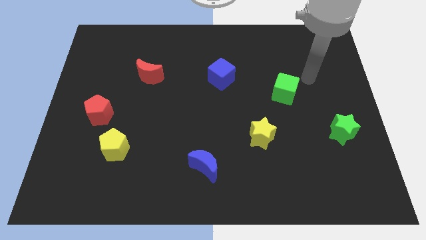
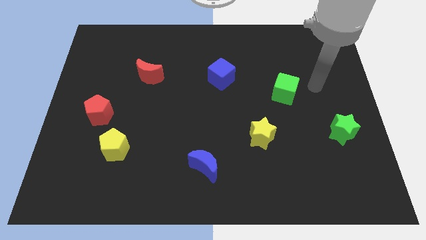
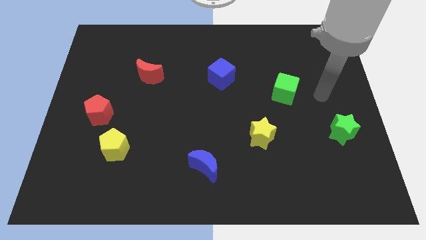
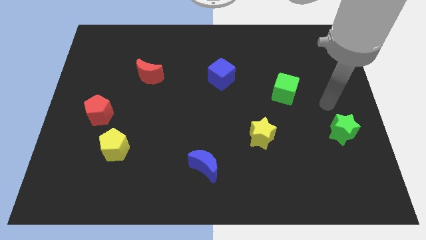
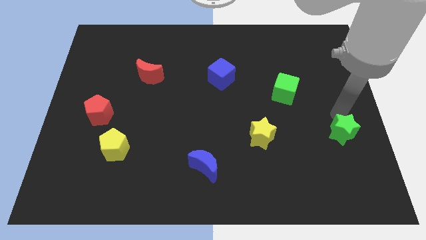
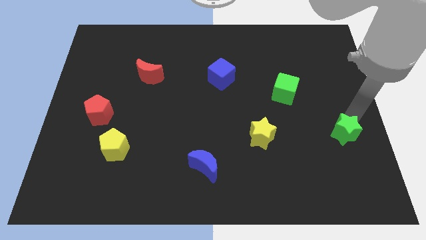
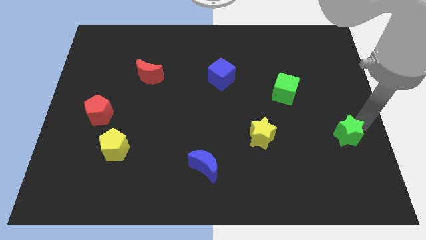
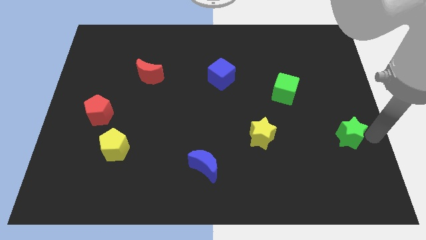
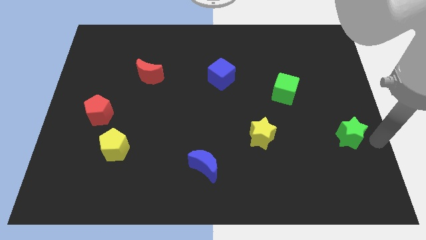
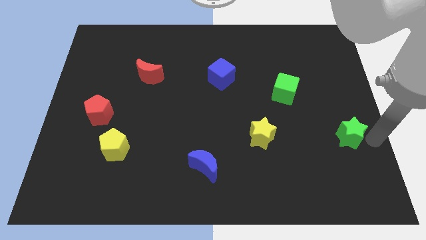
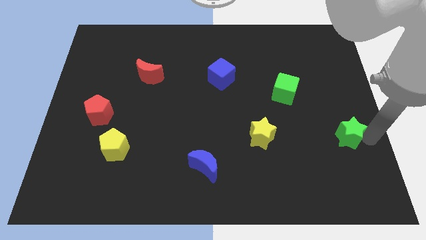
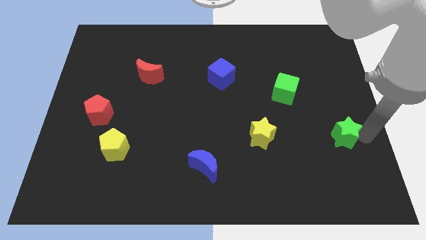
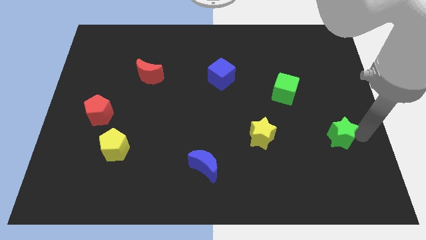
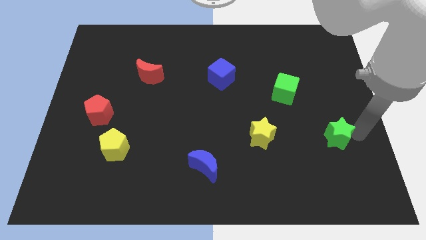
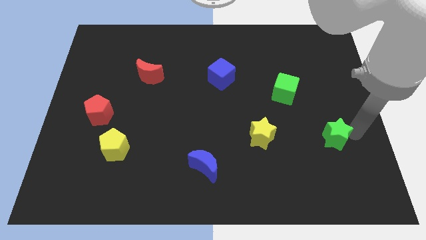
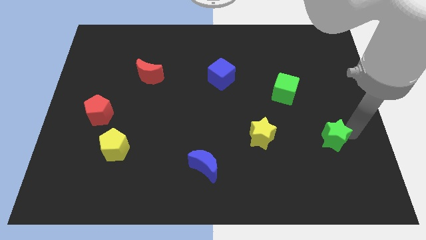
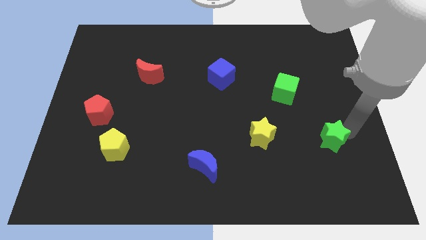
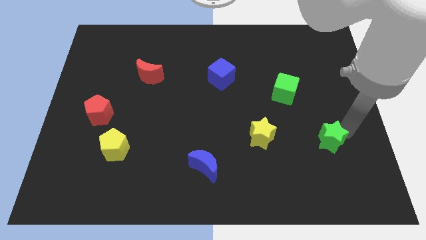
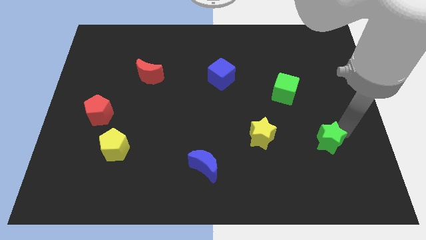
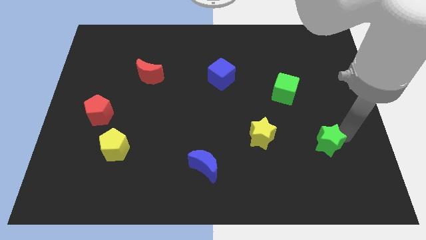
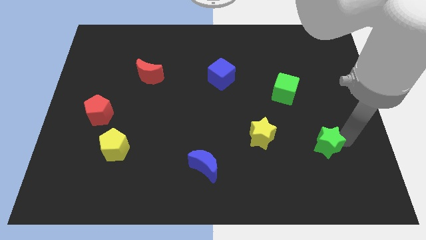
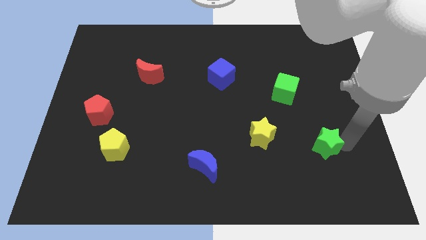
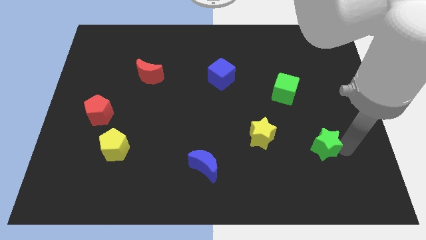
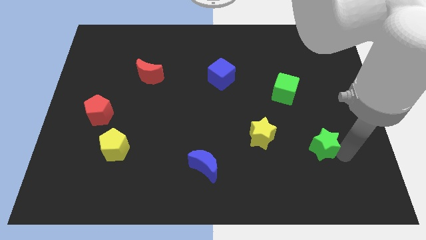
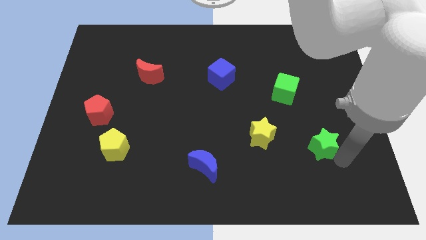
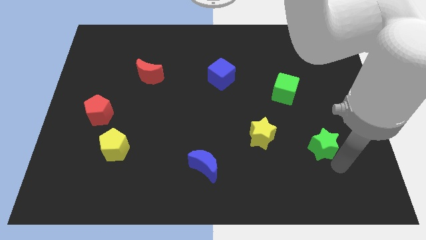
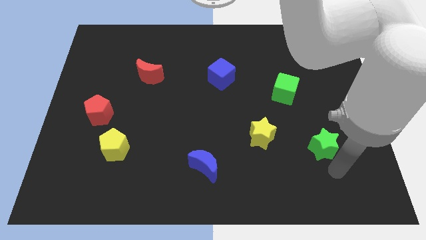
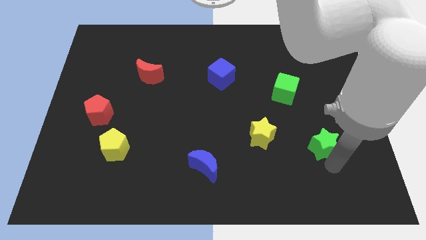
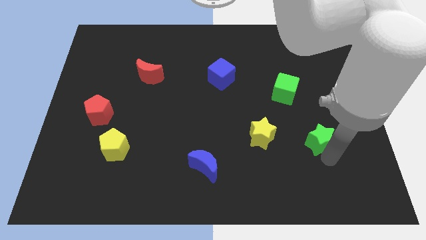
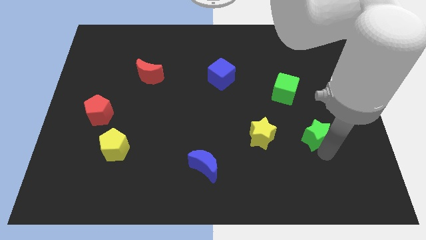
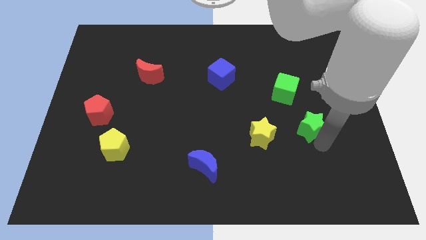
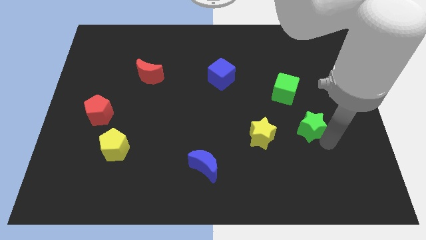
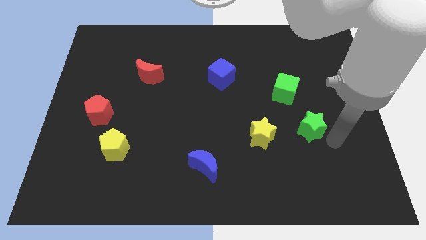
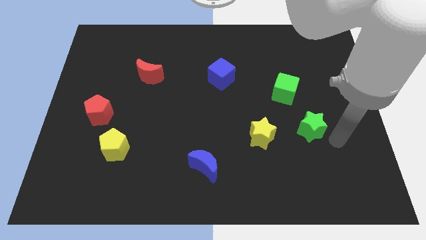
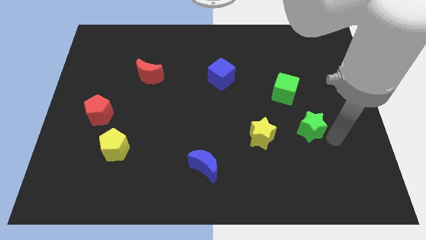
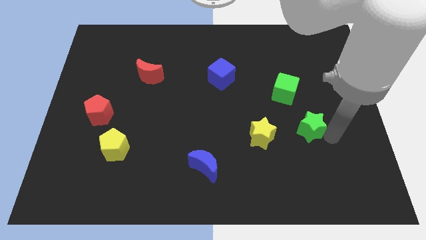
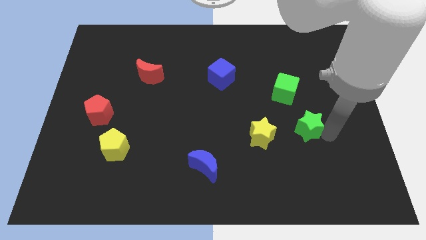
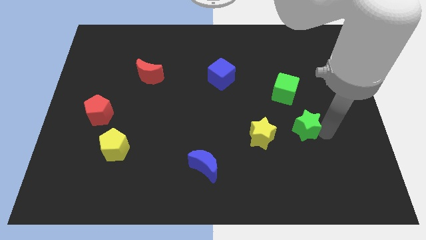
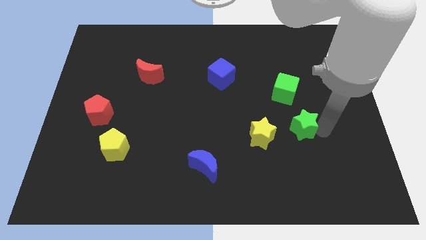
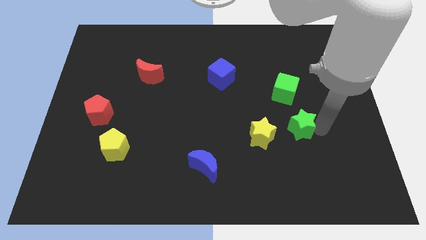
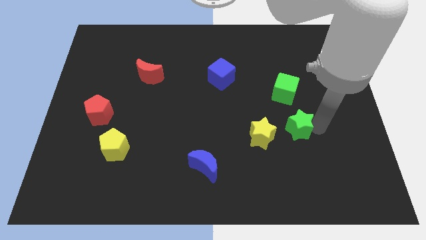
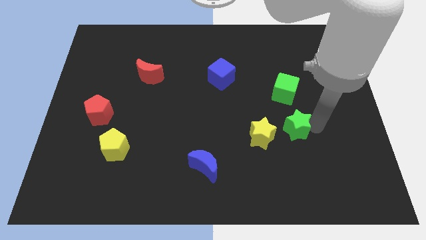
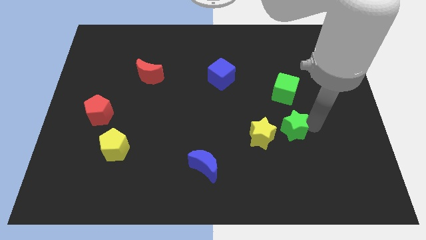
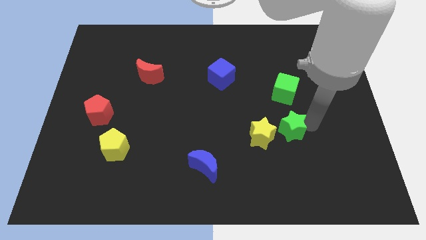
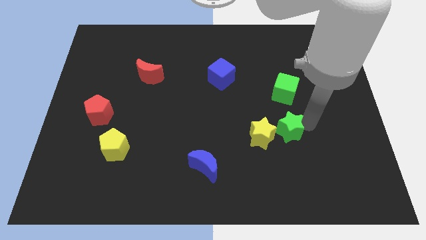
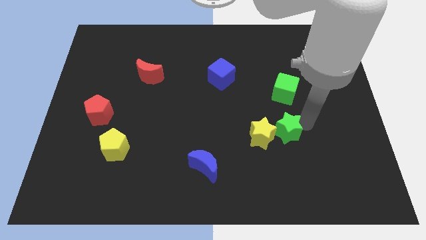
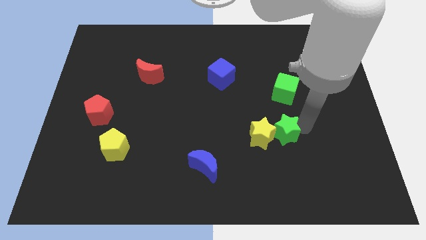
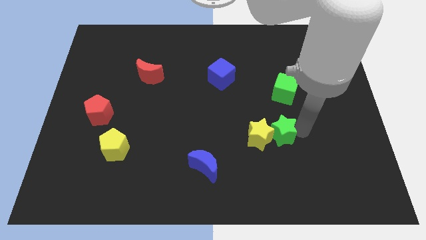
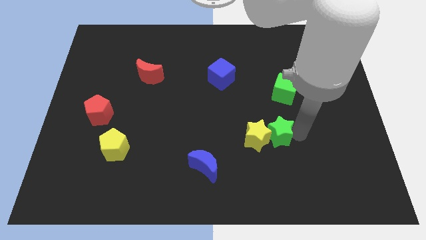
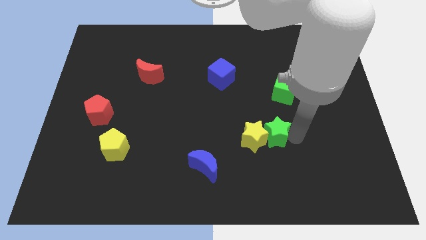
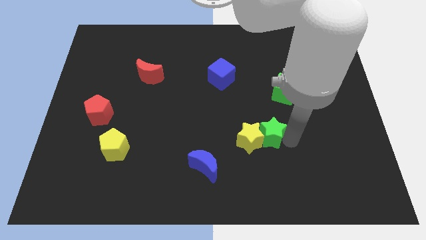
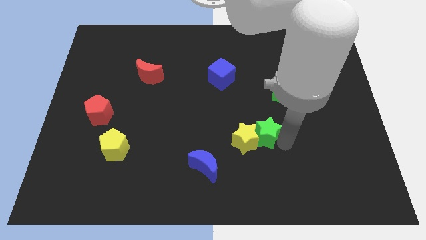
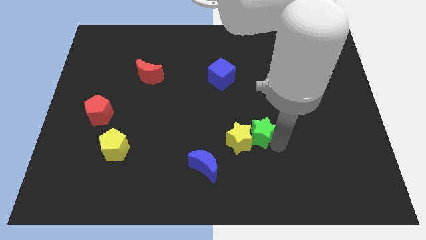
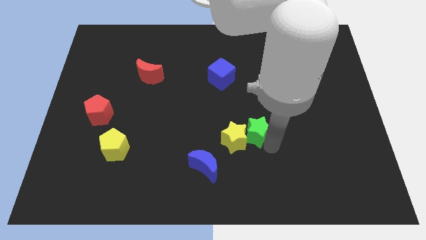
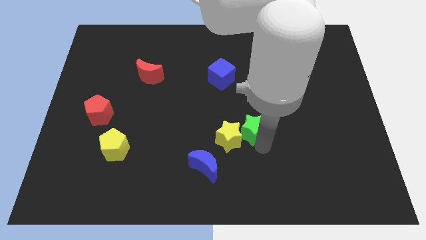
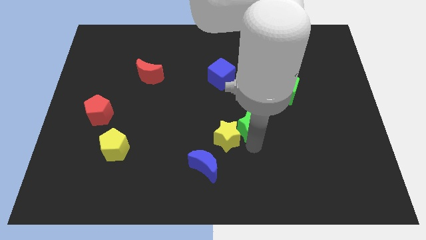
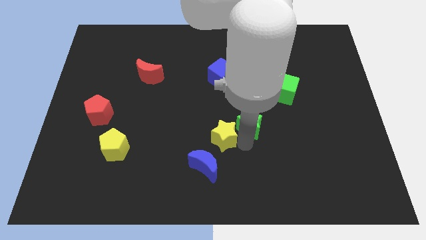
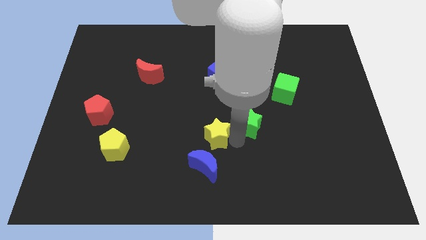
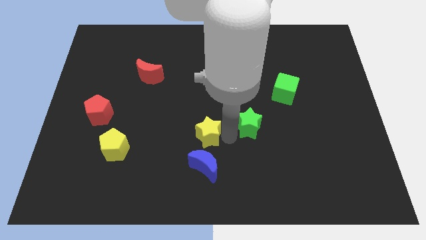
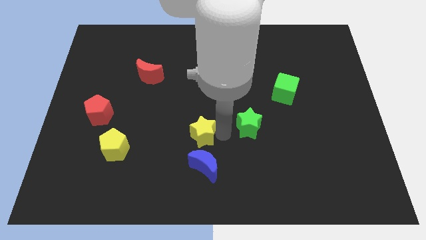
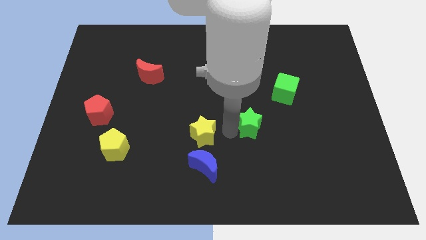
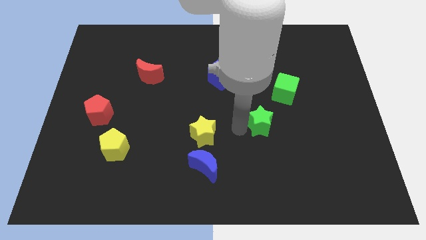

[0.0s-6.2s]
slide the green star diagonally down and to the left of the green cube
